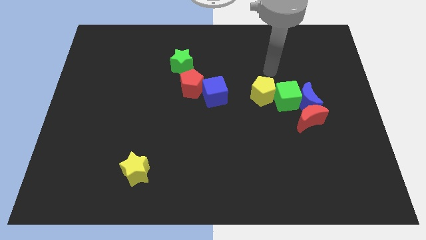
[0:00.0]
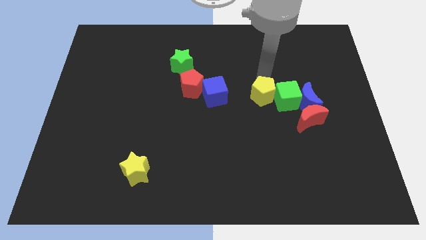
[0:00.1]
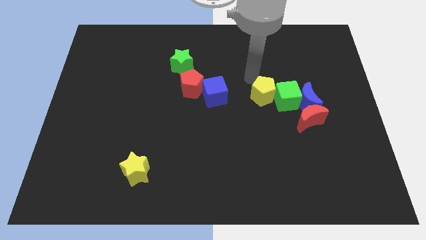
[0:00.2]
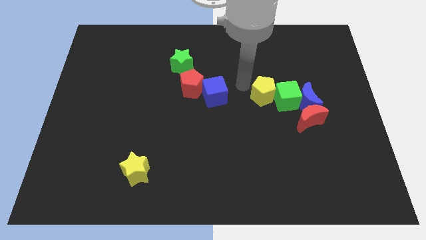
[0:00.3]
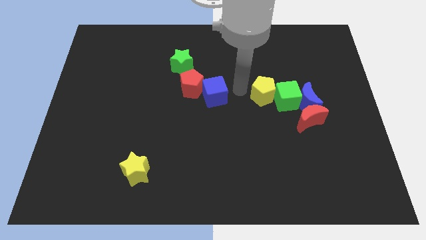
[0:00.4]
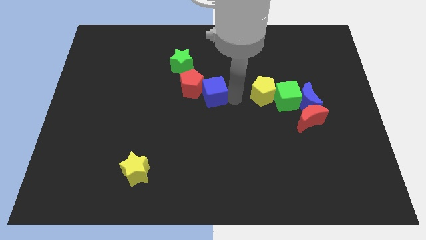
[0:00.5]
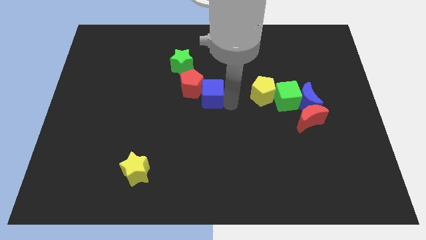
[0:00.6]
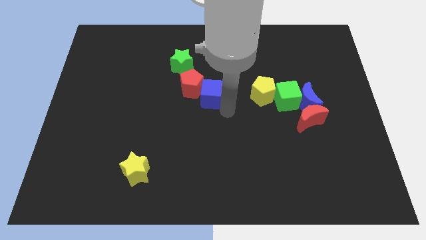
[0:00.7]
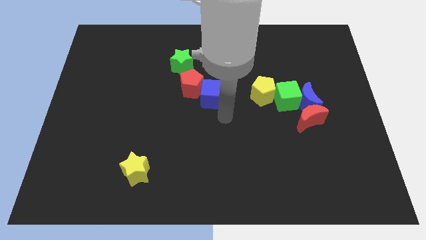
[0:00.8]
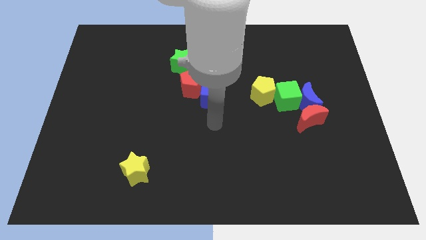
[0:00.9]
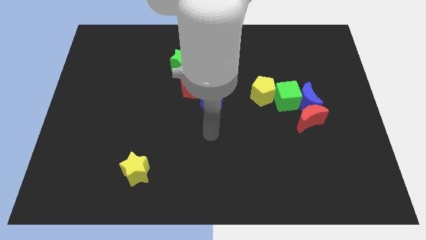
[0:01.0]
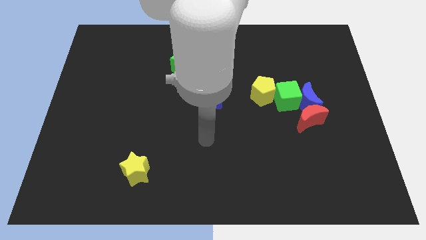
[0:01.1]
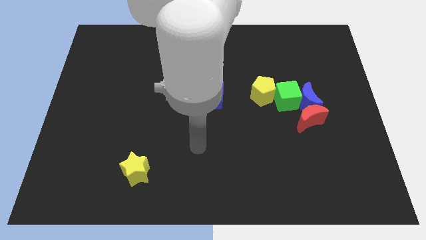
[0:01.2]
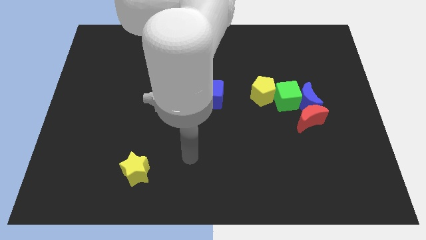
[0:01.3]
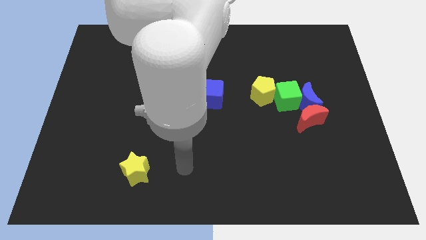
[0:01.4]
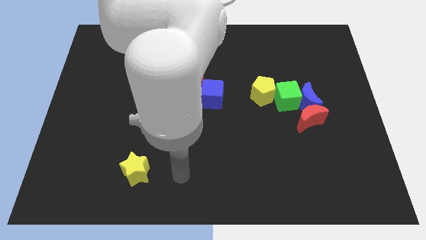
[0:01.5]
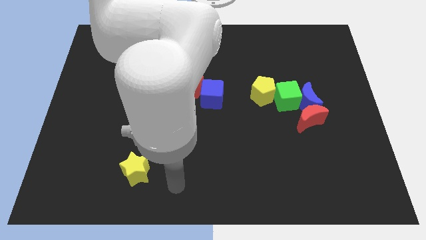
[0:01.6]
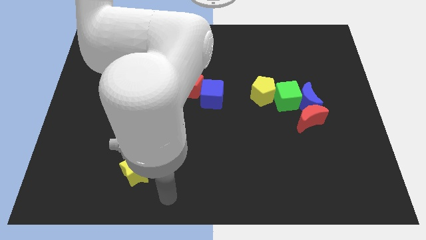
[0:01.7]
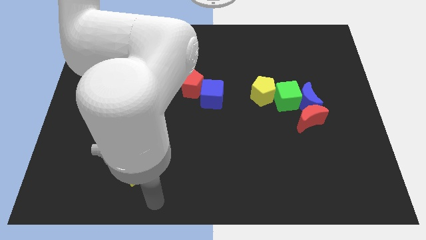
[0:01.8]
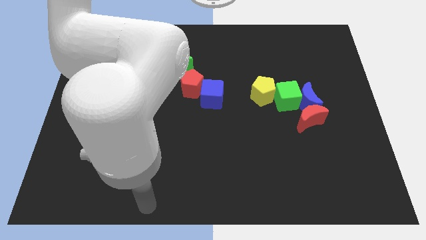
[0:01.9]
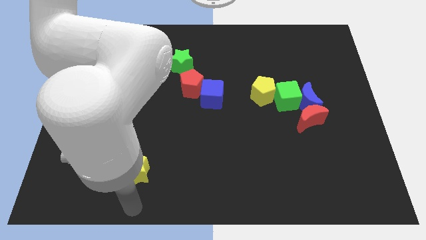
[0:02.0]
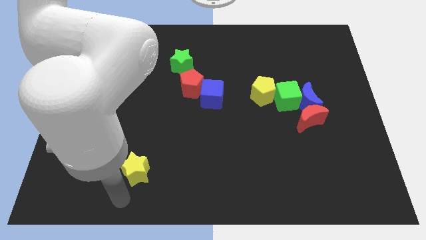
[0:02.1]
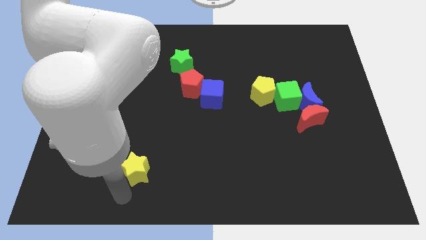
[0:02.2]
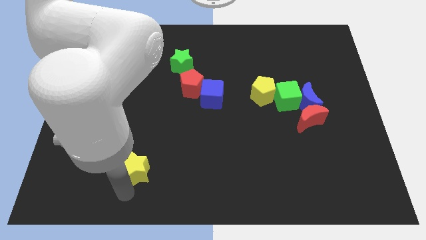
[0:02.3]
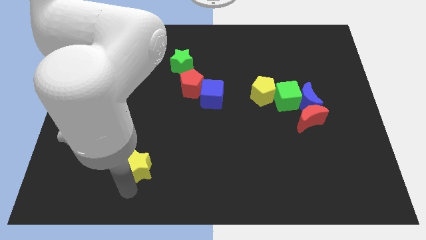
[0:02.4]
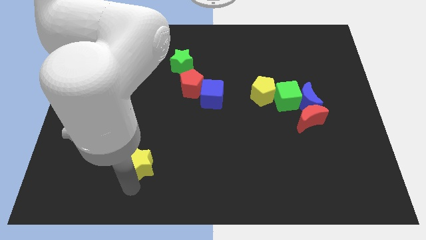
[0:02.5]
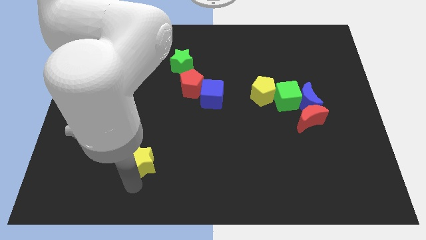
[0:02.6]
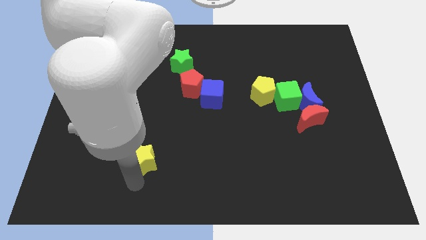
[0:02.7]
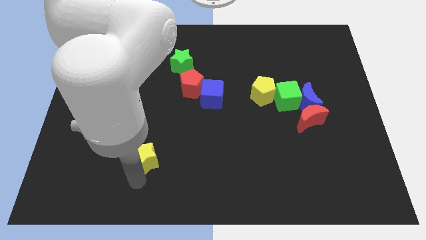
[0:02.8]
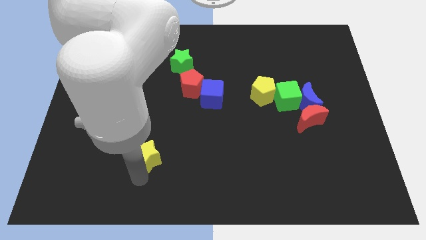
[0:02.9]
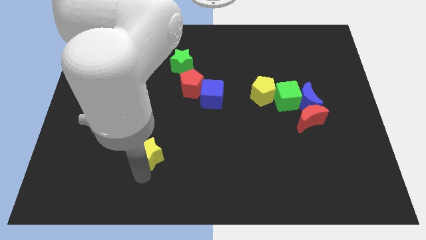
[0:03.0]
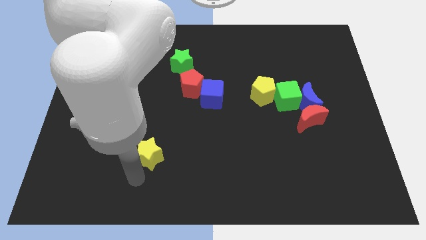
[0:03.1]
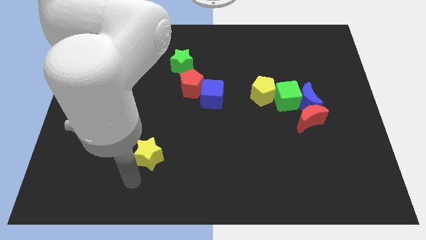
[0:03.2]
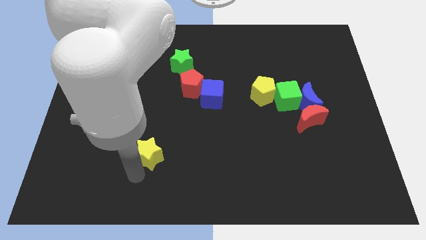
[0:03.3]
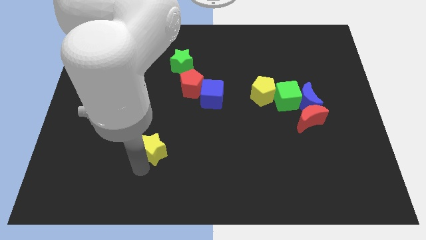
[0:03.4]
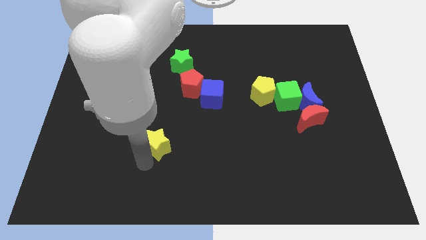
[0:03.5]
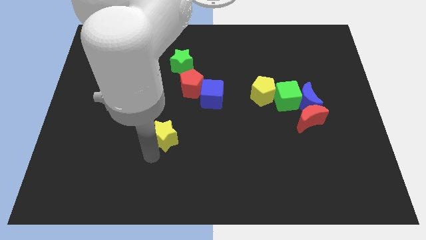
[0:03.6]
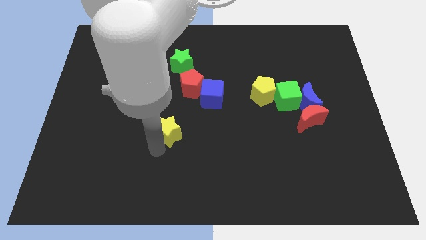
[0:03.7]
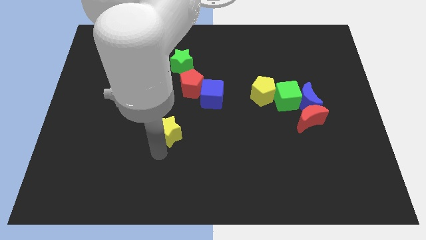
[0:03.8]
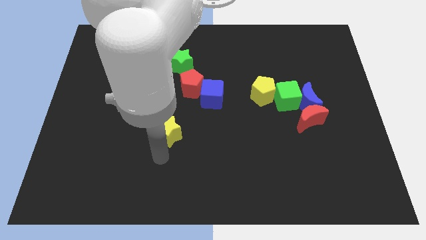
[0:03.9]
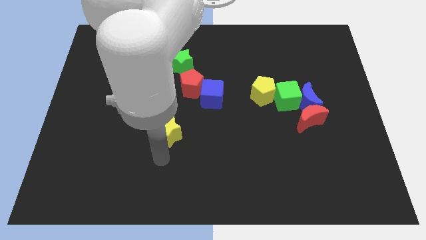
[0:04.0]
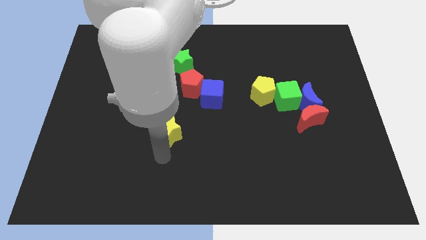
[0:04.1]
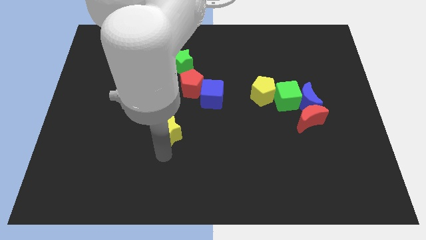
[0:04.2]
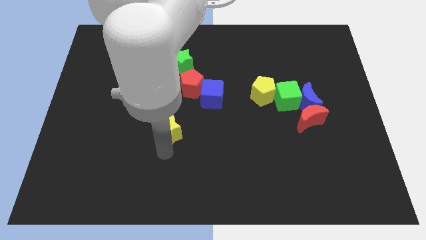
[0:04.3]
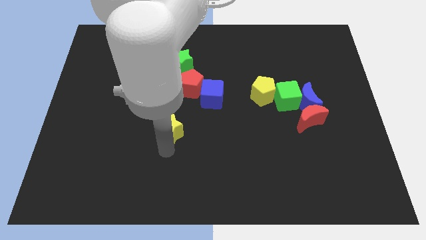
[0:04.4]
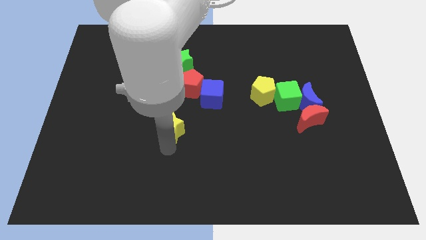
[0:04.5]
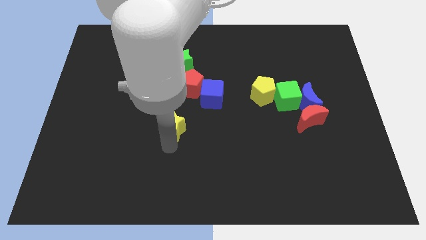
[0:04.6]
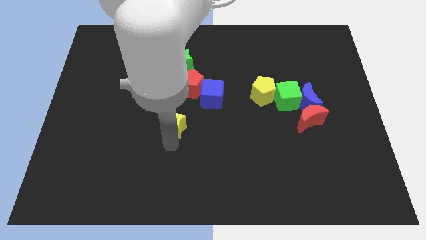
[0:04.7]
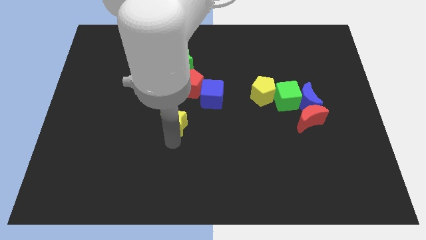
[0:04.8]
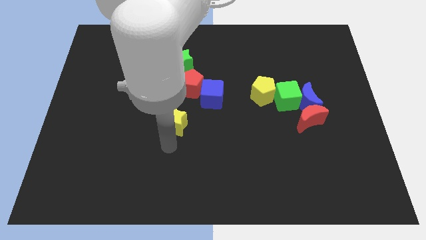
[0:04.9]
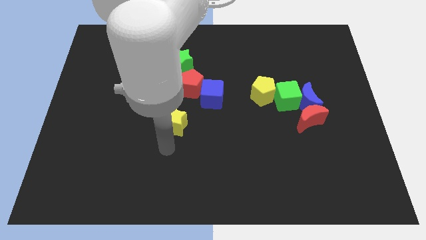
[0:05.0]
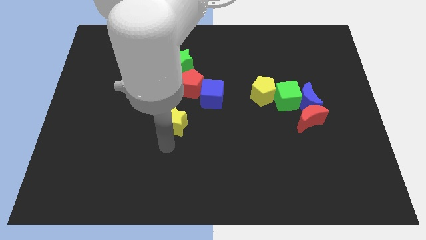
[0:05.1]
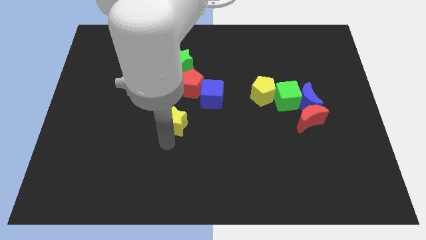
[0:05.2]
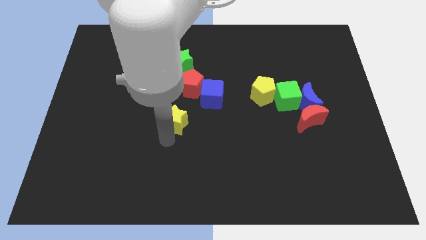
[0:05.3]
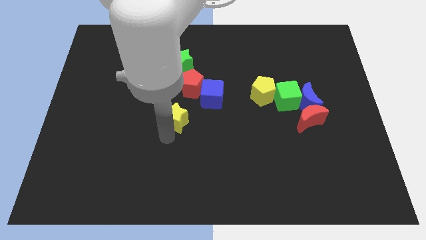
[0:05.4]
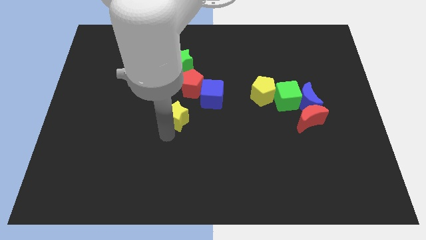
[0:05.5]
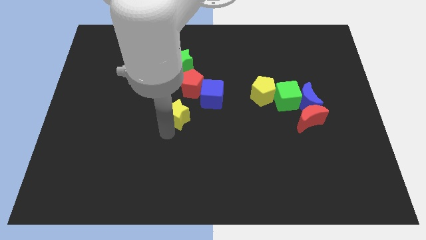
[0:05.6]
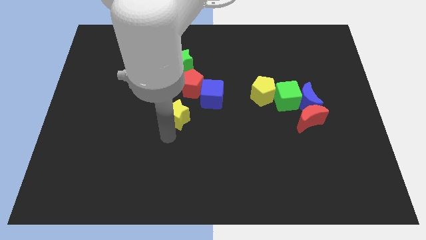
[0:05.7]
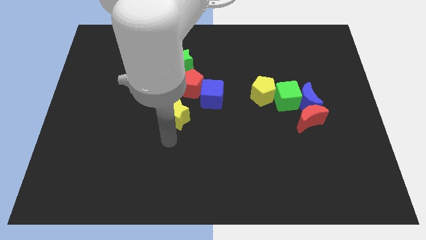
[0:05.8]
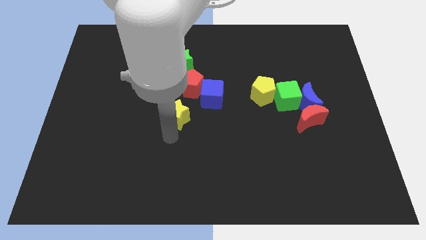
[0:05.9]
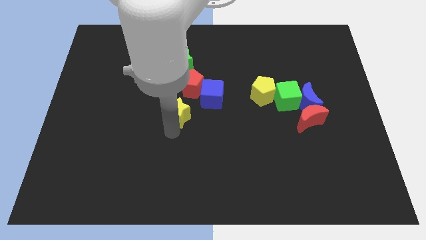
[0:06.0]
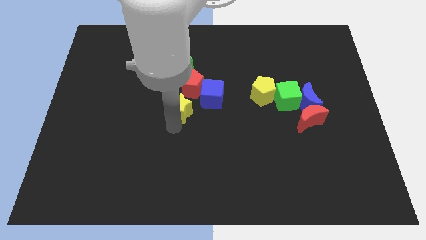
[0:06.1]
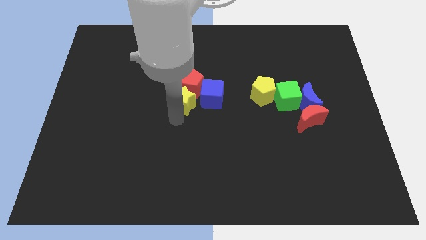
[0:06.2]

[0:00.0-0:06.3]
move the yellow star towards the red pentagon

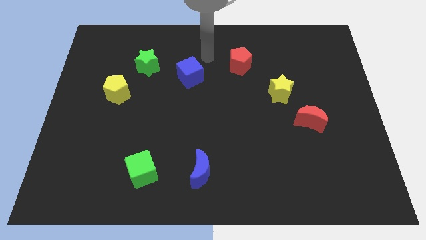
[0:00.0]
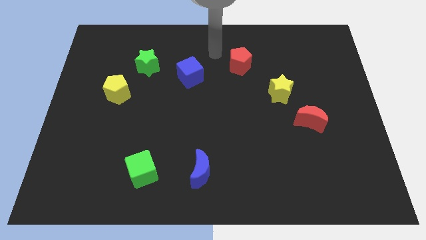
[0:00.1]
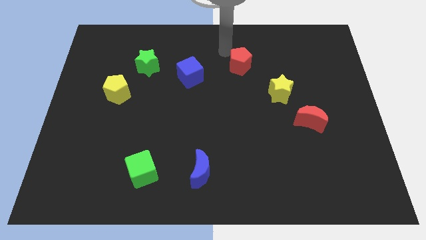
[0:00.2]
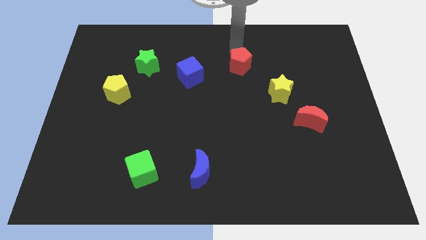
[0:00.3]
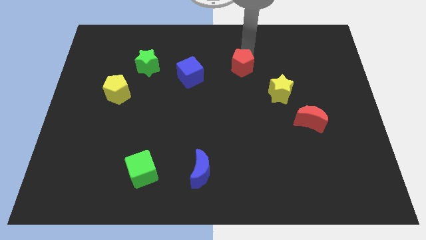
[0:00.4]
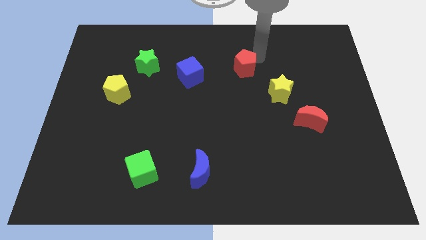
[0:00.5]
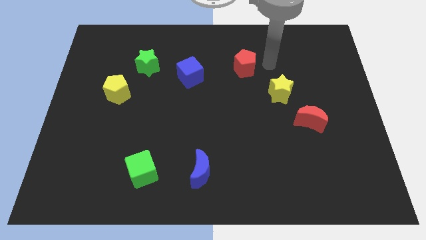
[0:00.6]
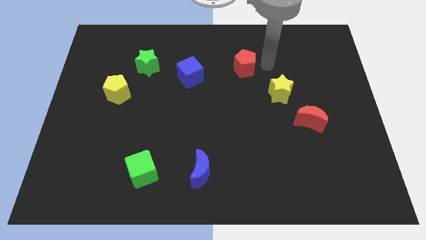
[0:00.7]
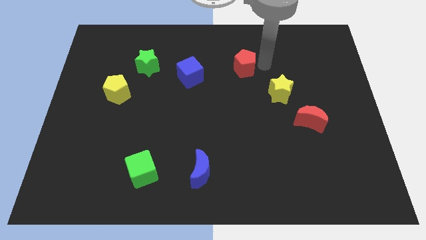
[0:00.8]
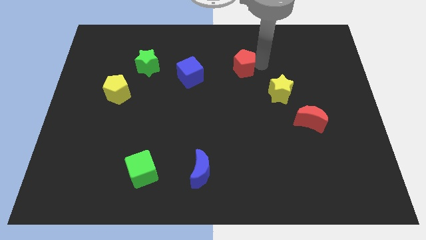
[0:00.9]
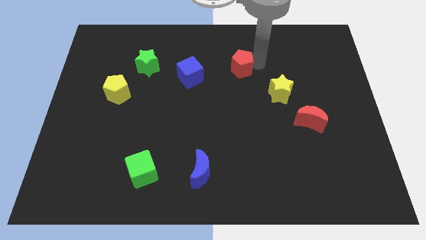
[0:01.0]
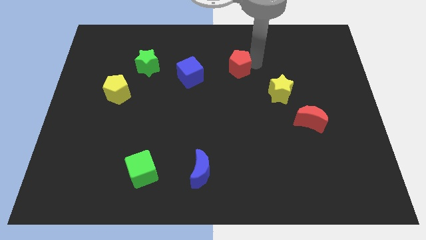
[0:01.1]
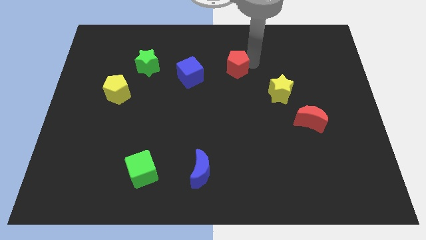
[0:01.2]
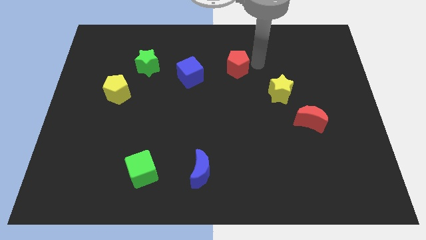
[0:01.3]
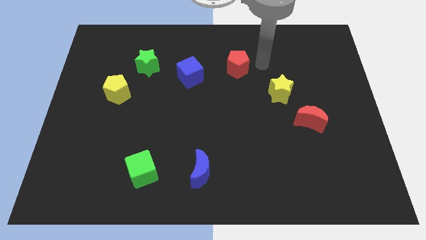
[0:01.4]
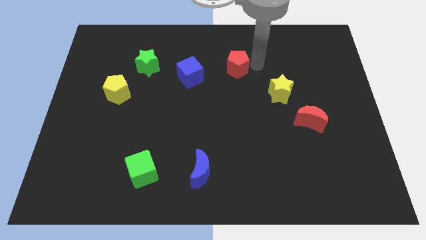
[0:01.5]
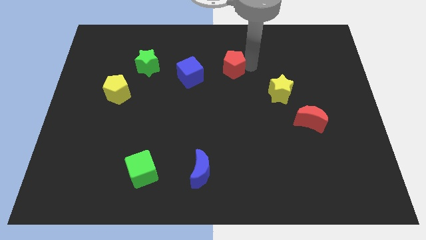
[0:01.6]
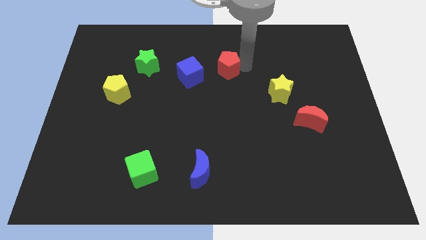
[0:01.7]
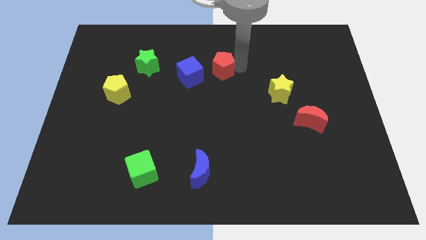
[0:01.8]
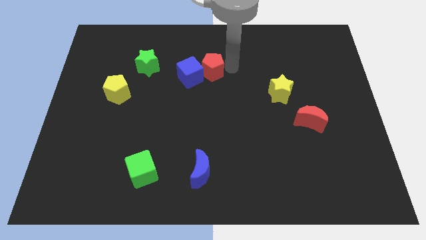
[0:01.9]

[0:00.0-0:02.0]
push the red pentagon towards the blue cube
